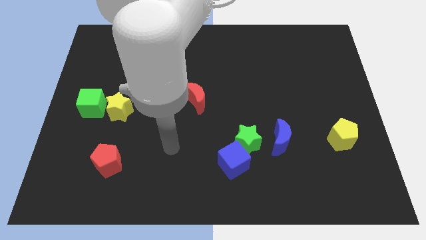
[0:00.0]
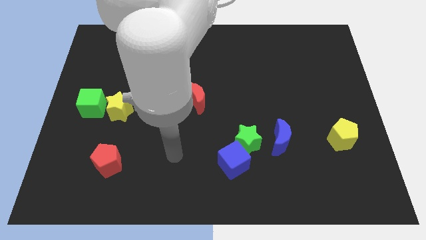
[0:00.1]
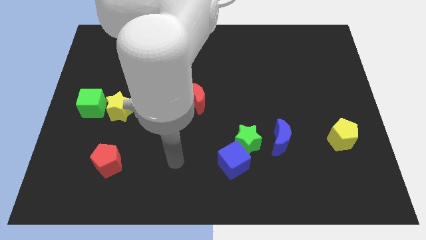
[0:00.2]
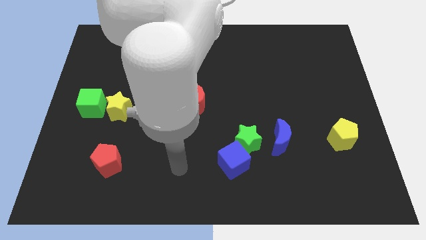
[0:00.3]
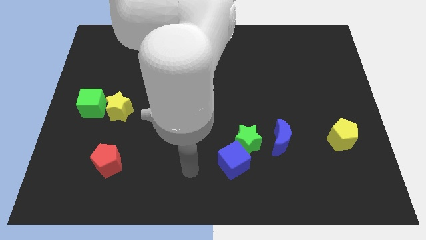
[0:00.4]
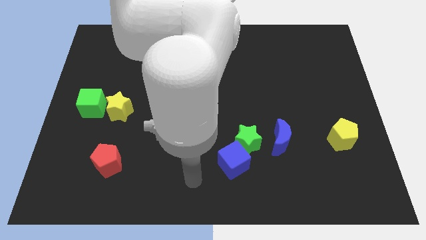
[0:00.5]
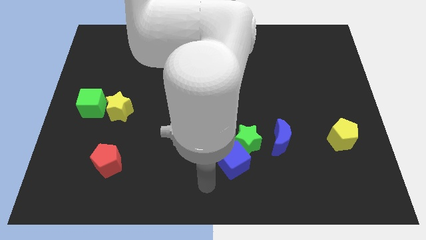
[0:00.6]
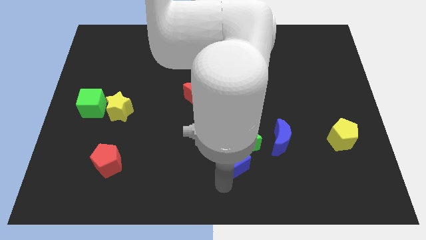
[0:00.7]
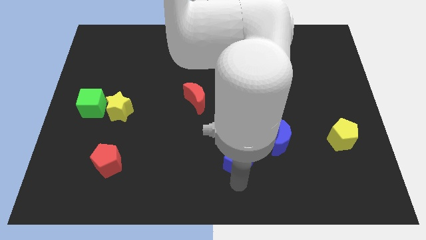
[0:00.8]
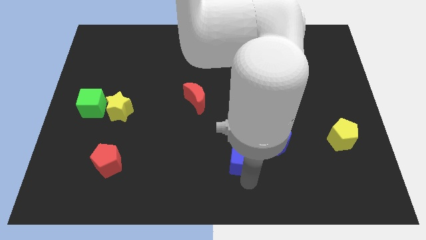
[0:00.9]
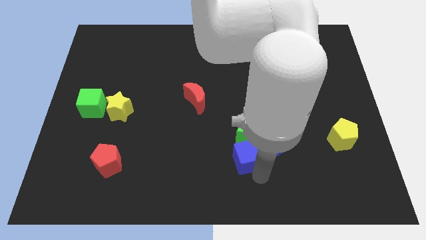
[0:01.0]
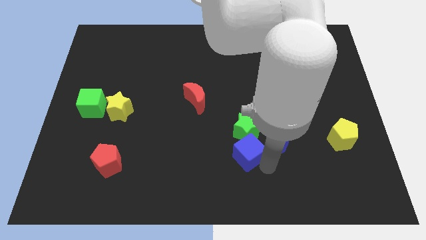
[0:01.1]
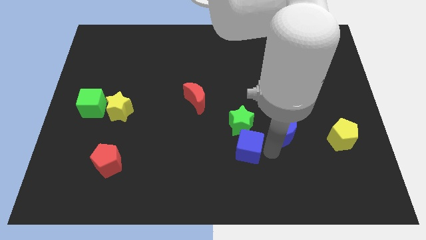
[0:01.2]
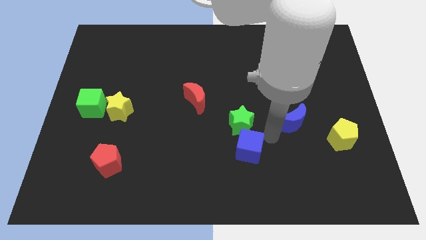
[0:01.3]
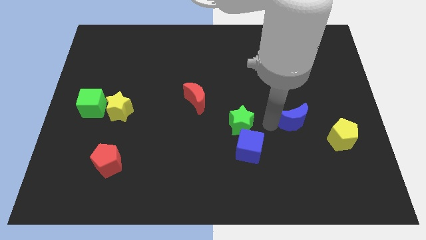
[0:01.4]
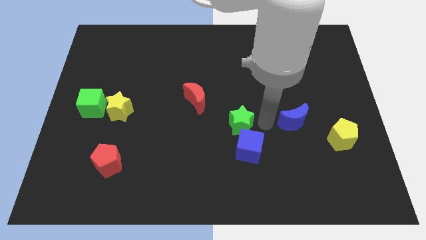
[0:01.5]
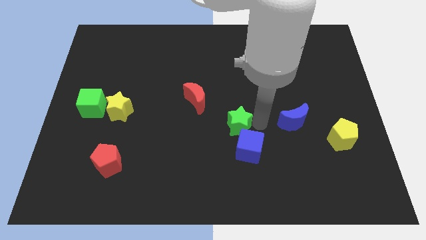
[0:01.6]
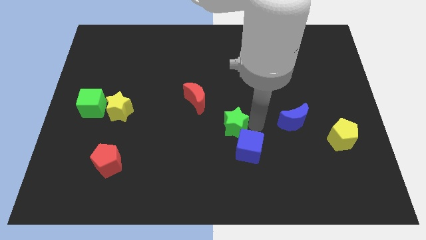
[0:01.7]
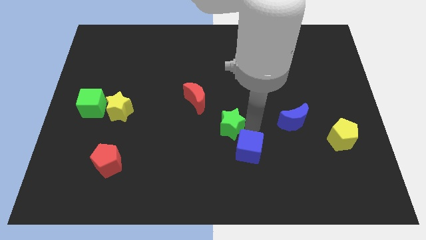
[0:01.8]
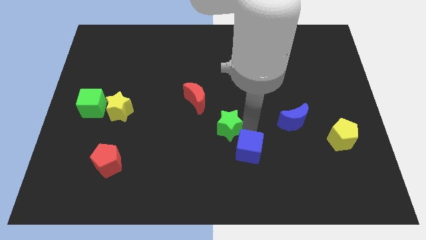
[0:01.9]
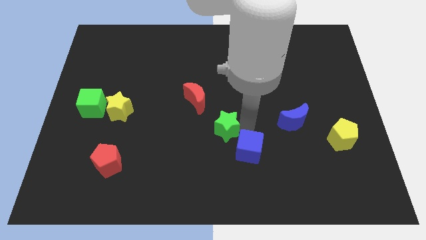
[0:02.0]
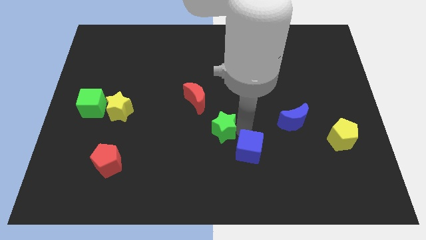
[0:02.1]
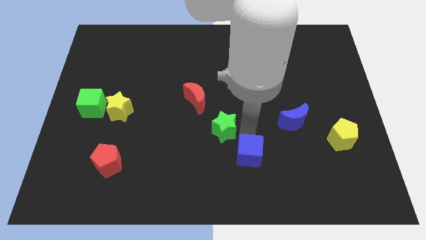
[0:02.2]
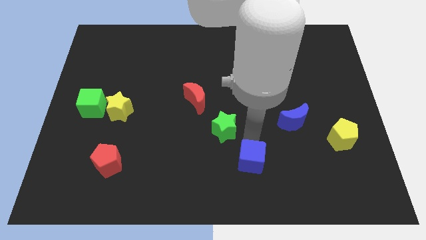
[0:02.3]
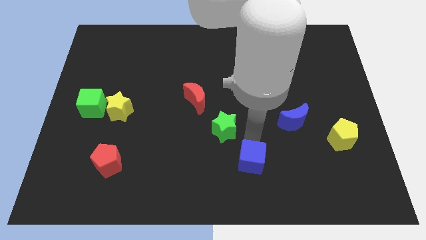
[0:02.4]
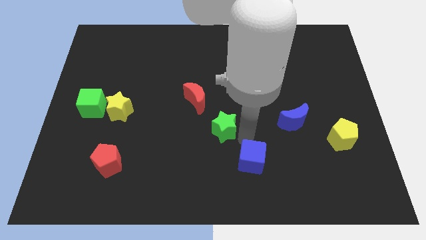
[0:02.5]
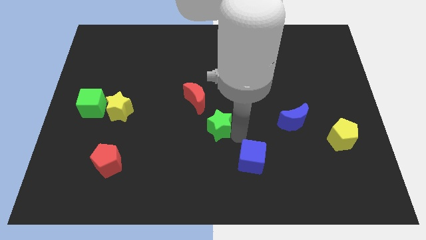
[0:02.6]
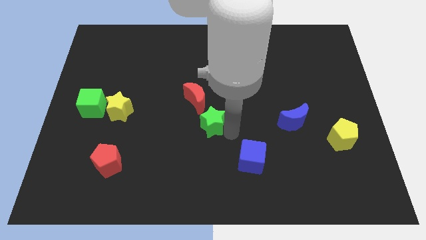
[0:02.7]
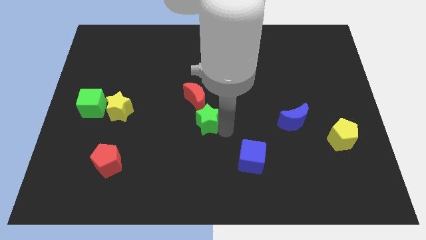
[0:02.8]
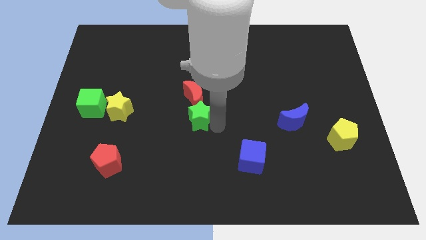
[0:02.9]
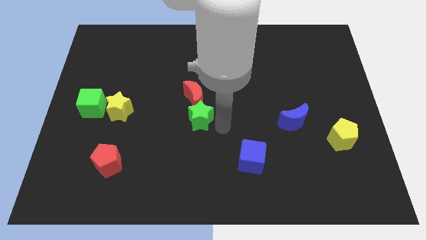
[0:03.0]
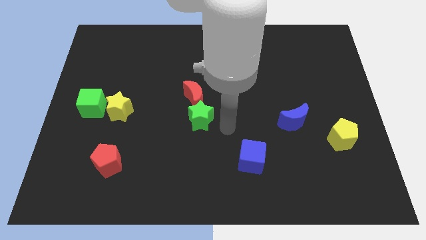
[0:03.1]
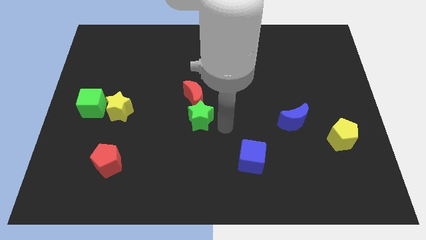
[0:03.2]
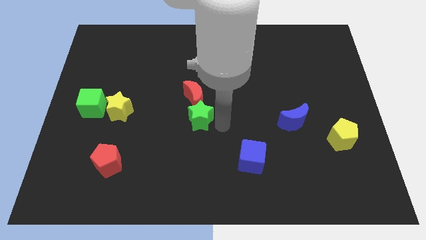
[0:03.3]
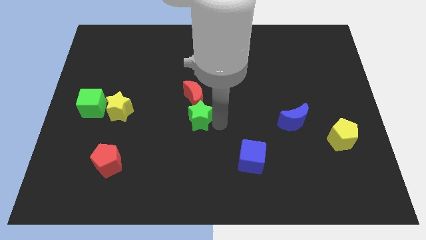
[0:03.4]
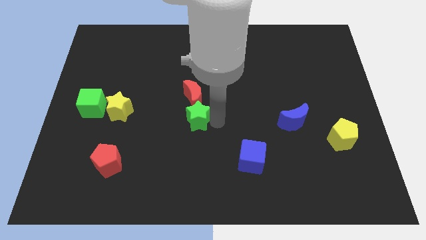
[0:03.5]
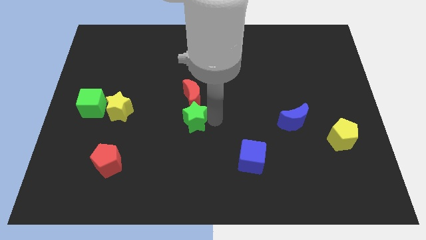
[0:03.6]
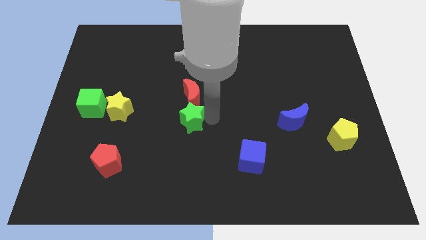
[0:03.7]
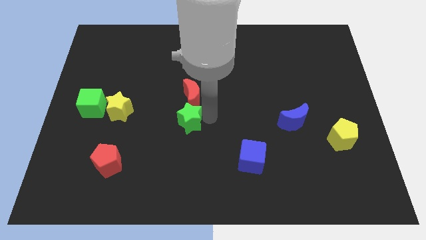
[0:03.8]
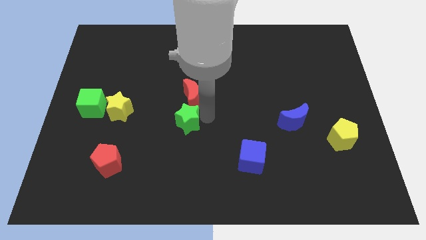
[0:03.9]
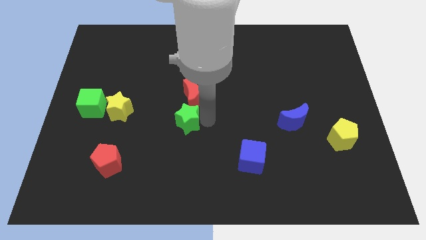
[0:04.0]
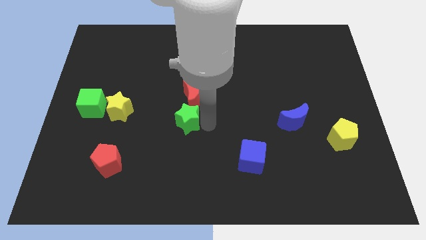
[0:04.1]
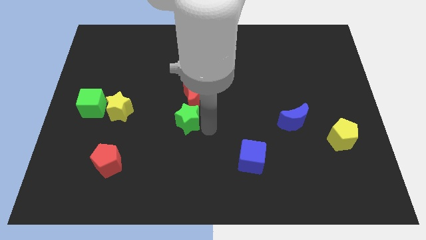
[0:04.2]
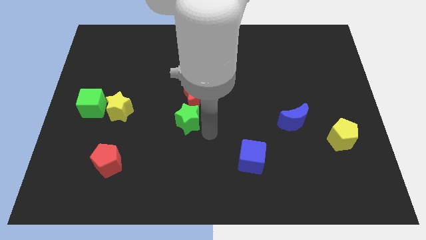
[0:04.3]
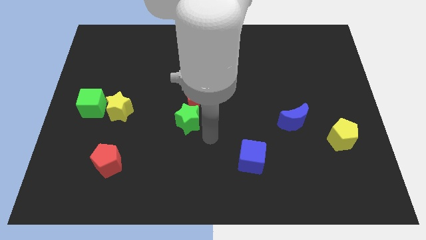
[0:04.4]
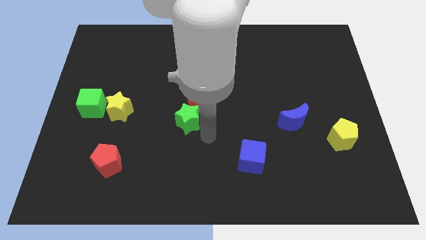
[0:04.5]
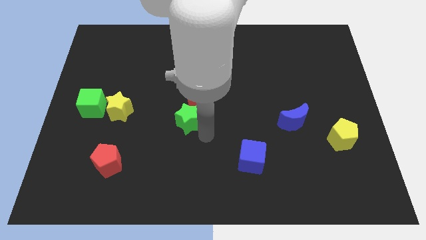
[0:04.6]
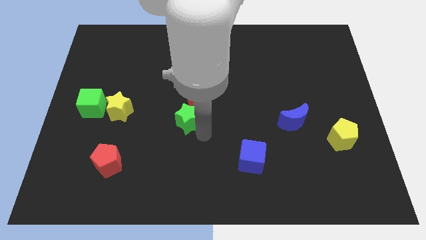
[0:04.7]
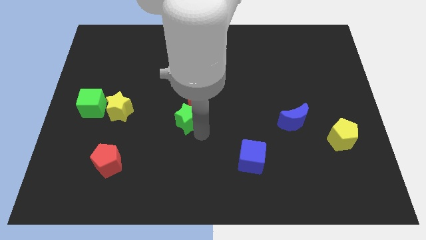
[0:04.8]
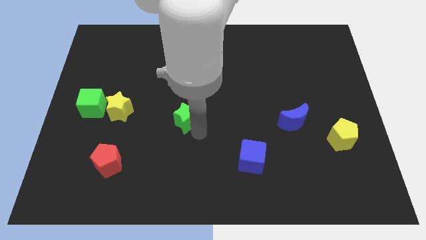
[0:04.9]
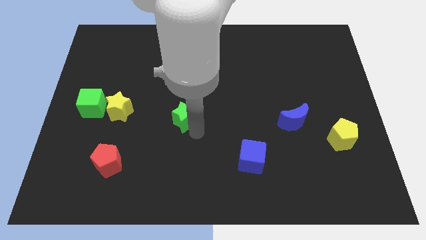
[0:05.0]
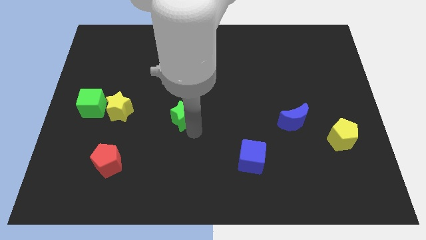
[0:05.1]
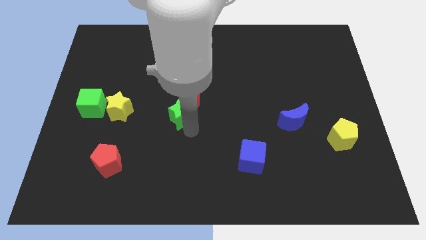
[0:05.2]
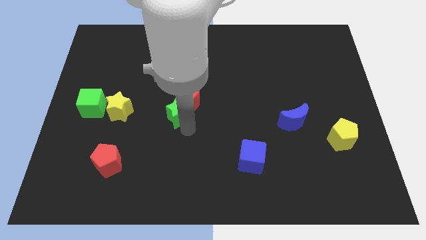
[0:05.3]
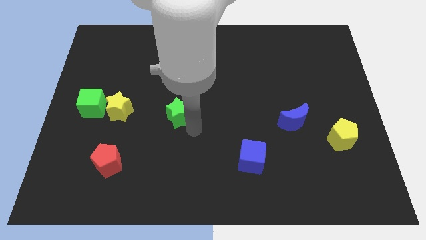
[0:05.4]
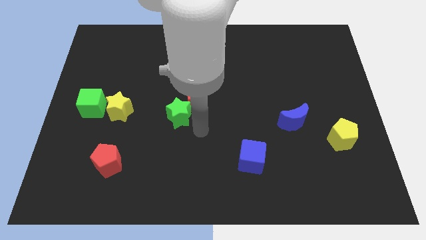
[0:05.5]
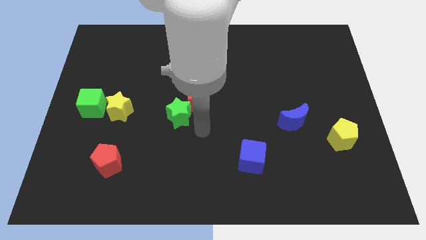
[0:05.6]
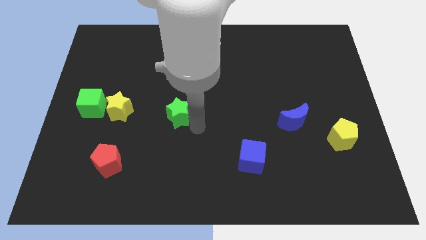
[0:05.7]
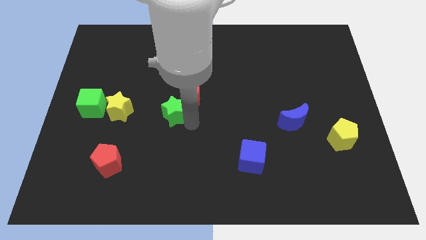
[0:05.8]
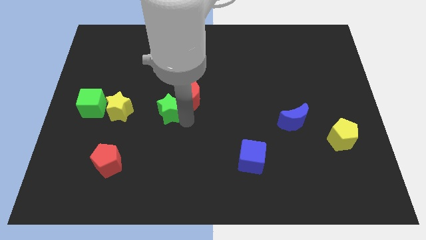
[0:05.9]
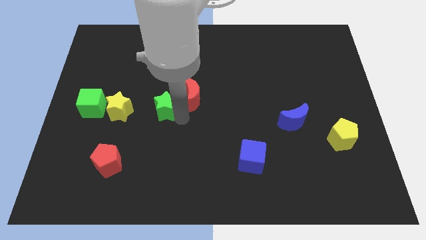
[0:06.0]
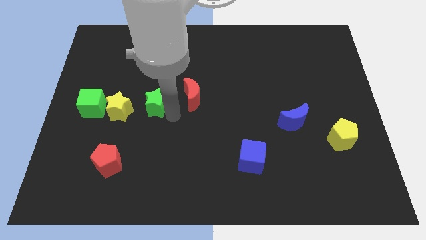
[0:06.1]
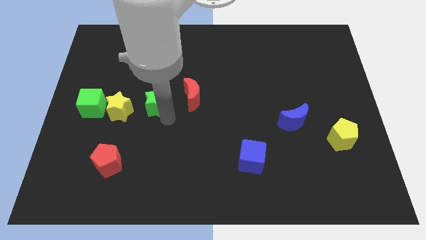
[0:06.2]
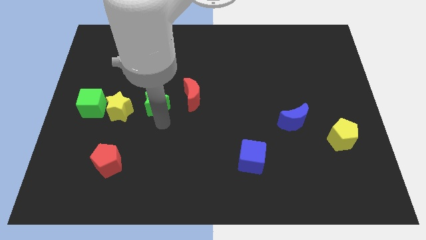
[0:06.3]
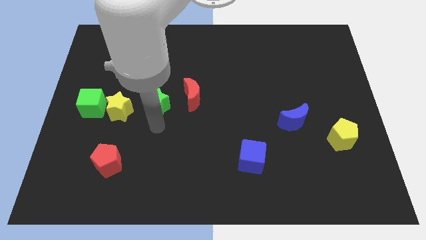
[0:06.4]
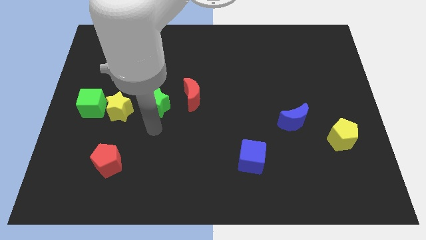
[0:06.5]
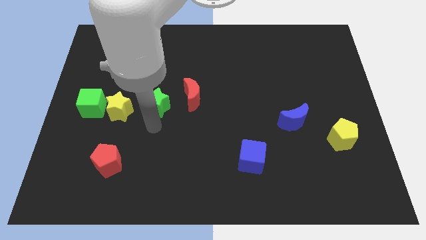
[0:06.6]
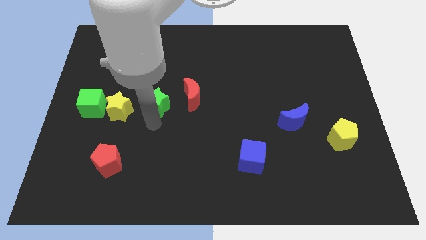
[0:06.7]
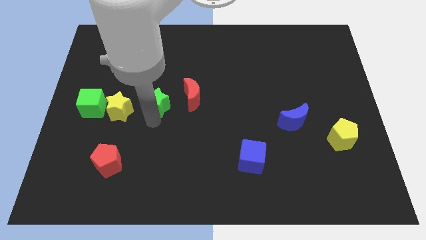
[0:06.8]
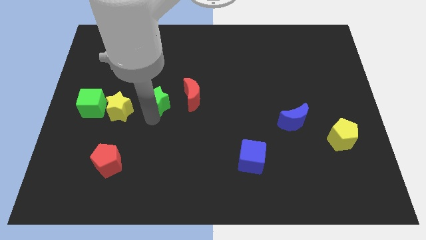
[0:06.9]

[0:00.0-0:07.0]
move the green star upwards and then to the left

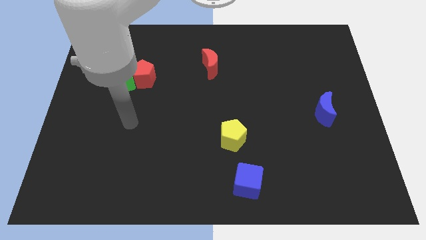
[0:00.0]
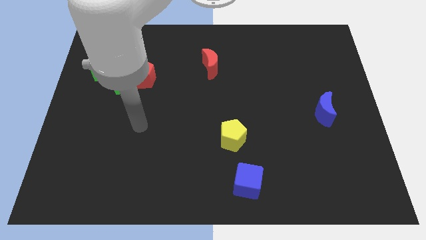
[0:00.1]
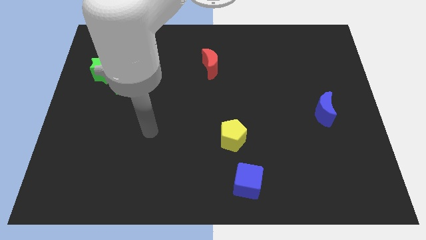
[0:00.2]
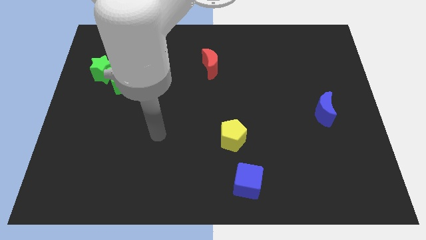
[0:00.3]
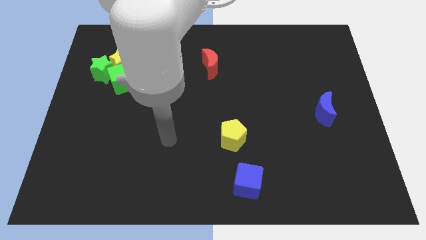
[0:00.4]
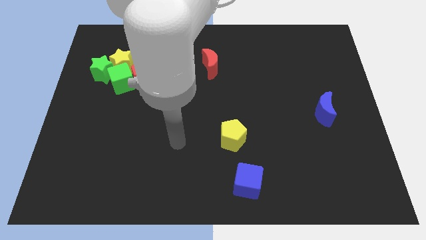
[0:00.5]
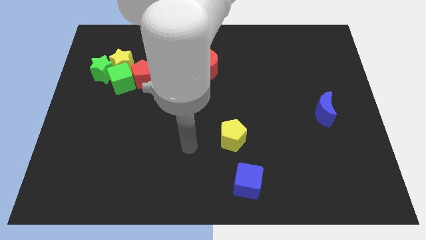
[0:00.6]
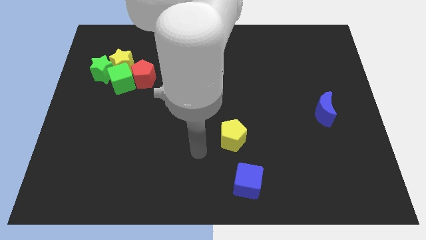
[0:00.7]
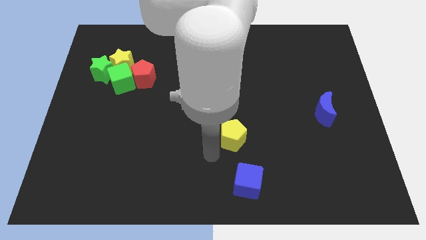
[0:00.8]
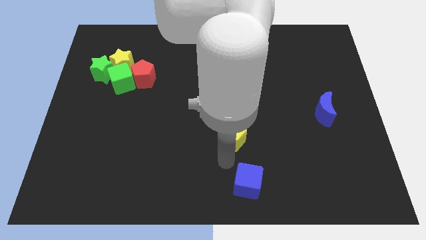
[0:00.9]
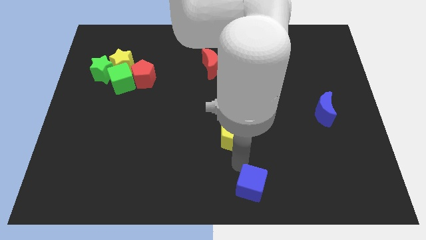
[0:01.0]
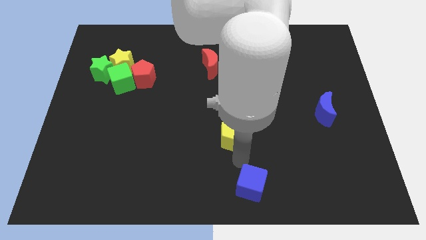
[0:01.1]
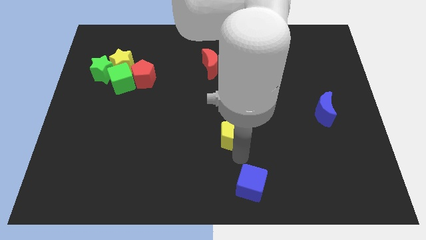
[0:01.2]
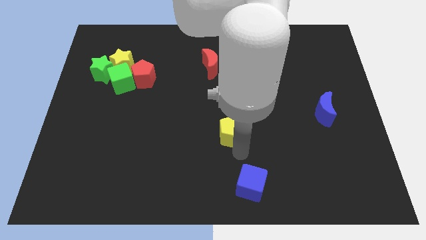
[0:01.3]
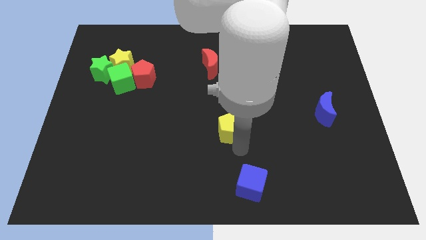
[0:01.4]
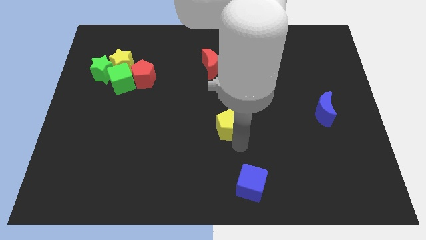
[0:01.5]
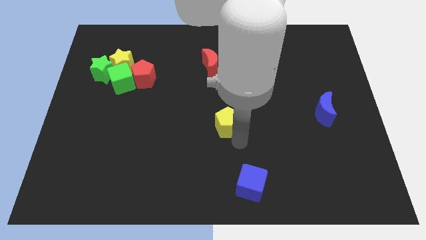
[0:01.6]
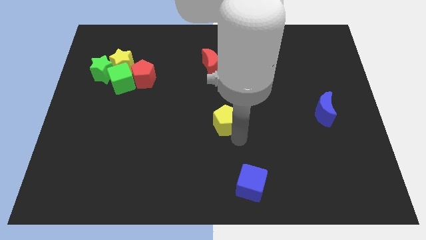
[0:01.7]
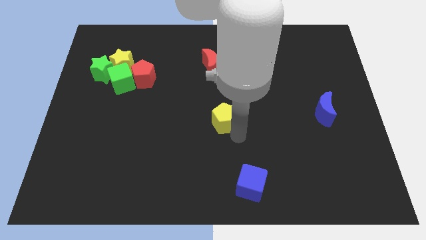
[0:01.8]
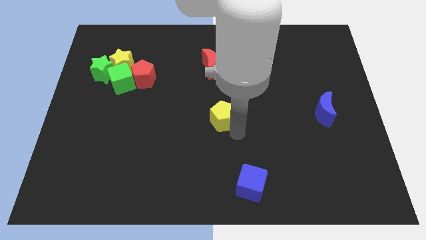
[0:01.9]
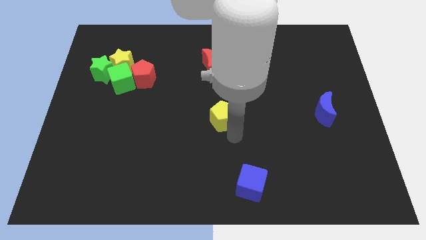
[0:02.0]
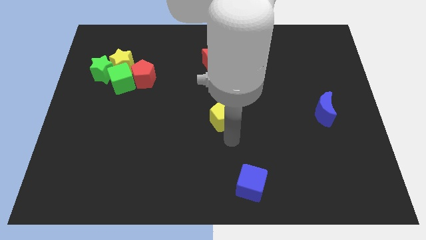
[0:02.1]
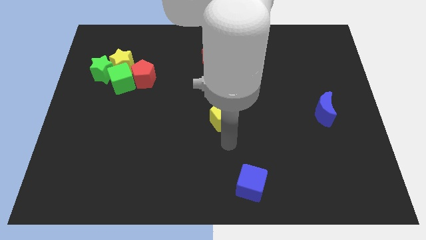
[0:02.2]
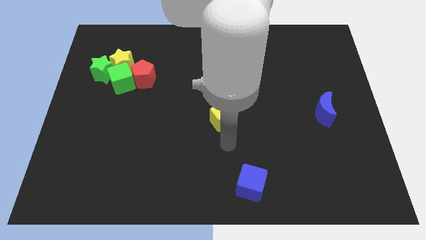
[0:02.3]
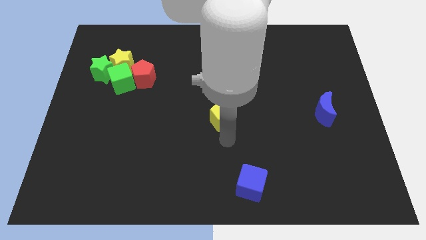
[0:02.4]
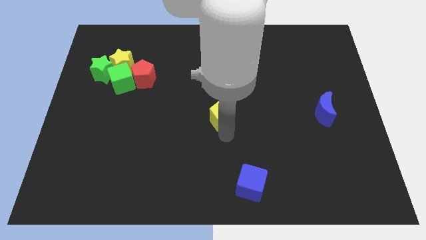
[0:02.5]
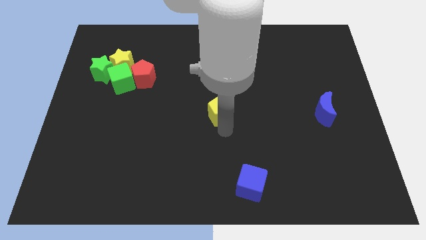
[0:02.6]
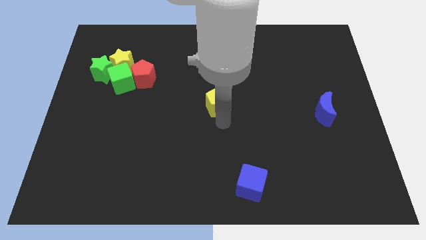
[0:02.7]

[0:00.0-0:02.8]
slide the yellow pentagon upwards somewhat
